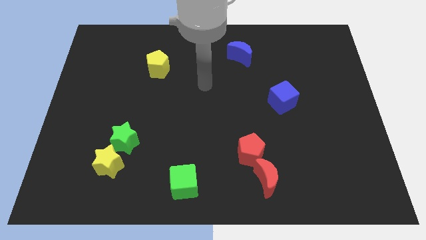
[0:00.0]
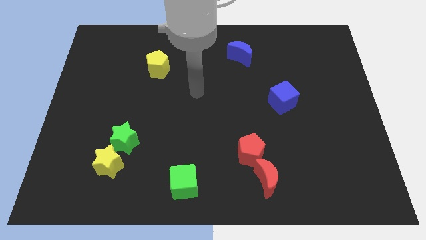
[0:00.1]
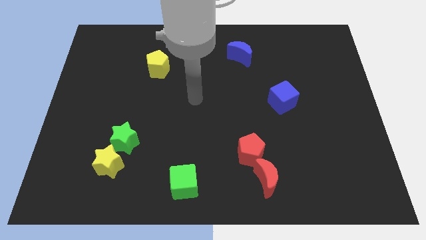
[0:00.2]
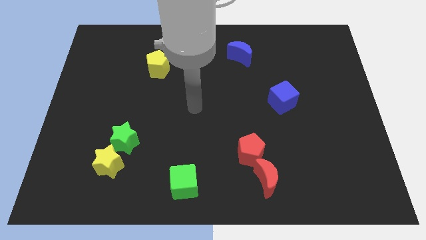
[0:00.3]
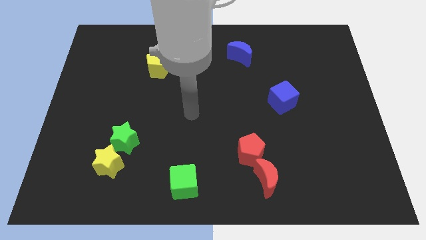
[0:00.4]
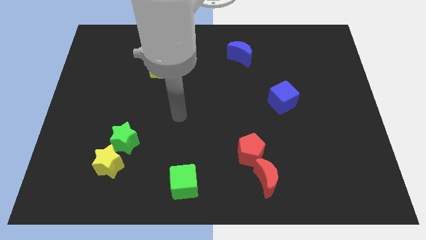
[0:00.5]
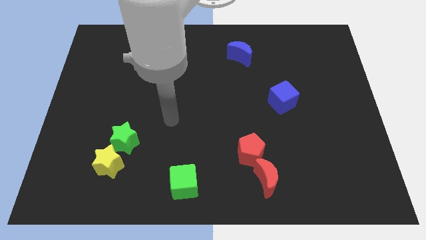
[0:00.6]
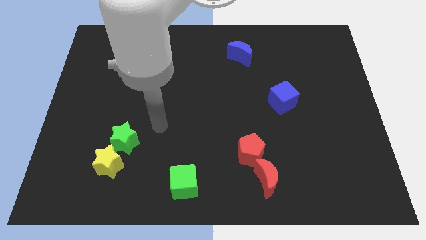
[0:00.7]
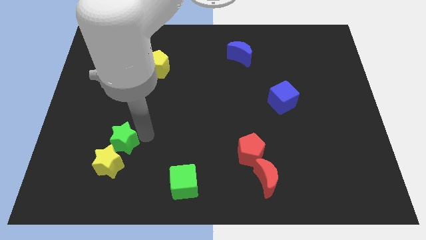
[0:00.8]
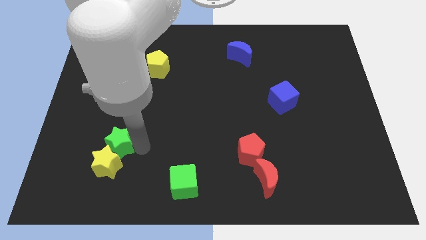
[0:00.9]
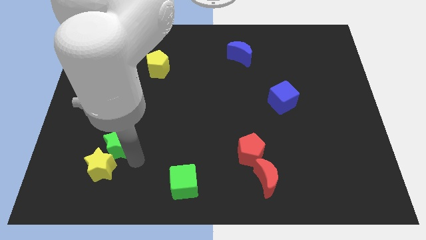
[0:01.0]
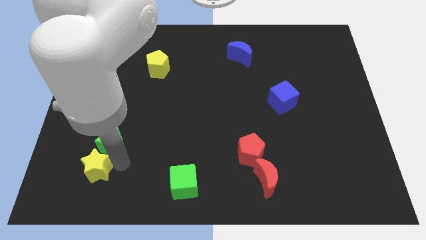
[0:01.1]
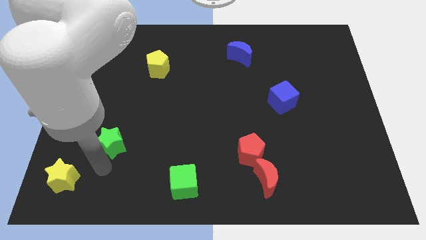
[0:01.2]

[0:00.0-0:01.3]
pull the green star apart from the yellow star

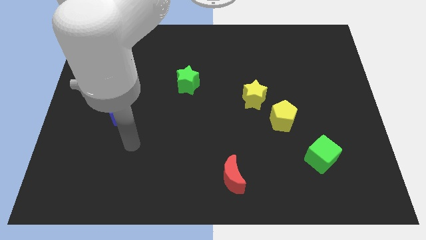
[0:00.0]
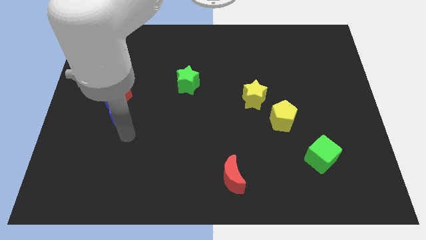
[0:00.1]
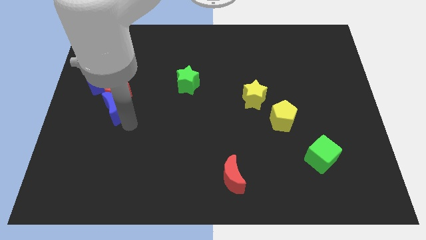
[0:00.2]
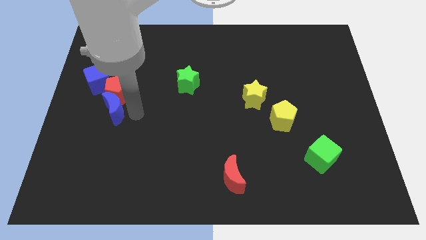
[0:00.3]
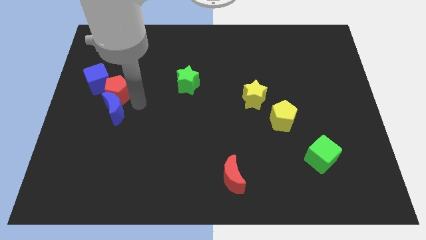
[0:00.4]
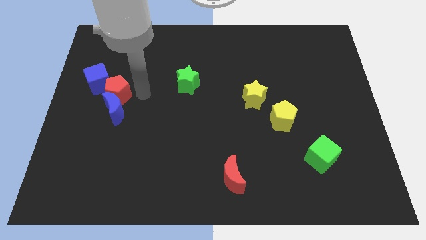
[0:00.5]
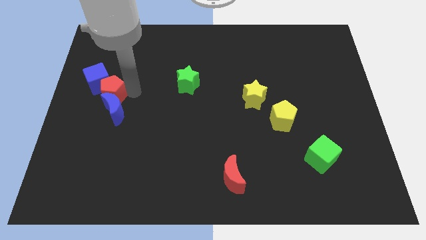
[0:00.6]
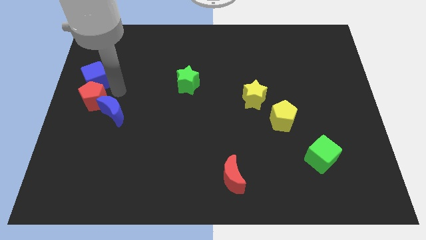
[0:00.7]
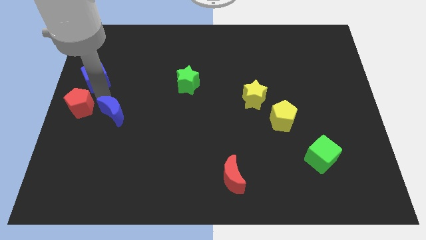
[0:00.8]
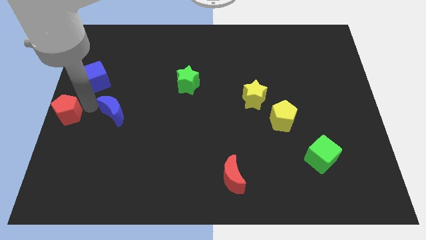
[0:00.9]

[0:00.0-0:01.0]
move the blue moon away from the red pentagon

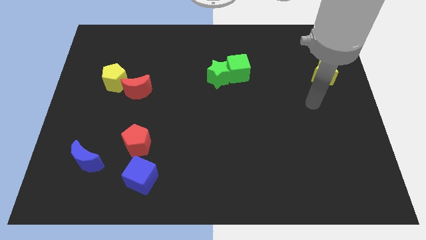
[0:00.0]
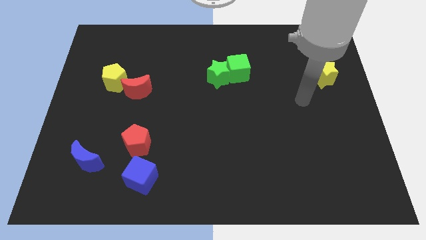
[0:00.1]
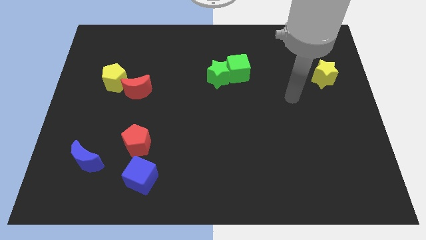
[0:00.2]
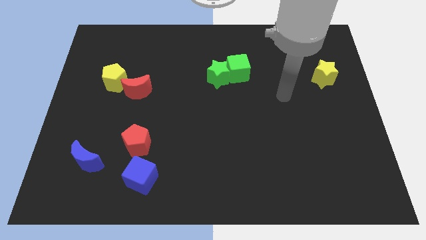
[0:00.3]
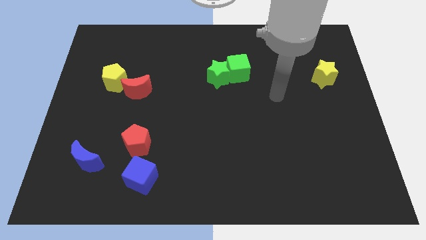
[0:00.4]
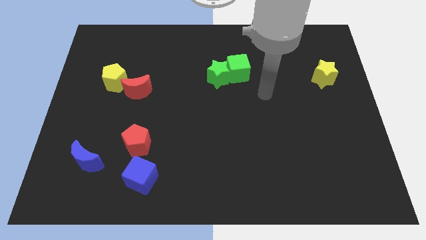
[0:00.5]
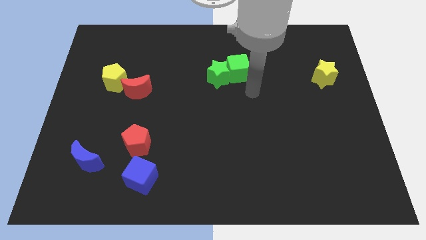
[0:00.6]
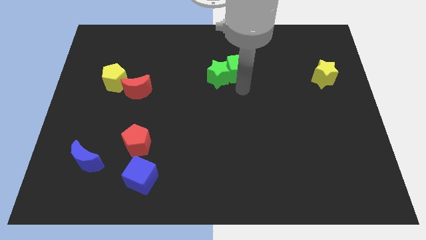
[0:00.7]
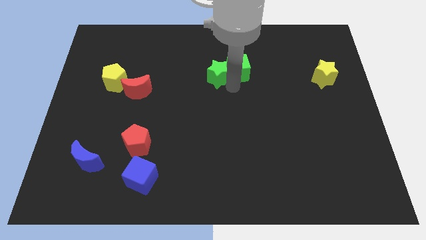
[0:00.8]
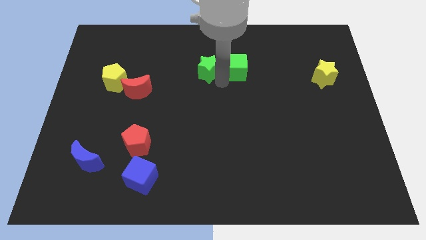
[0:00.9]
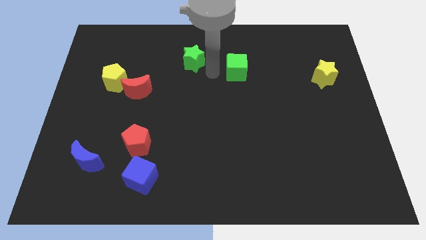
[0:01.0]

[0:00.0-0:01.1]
move the green cube away from the green star

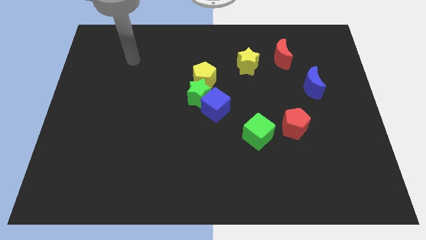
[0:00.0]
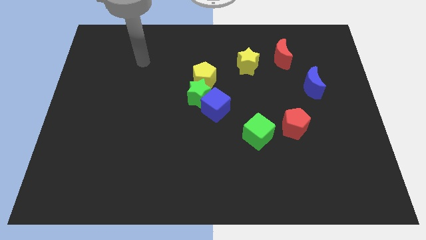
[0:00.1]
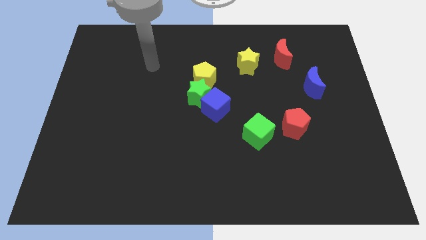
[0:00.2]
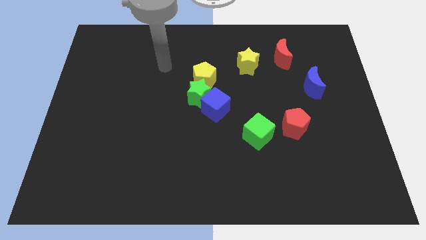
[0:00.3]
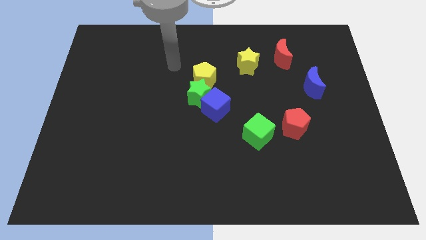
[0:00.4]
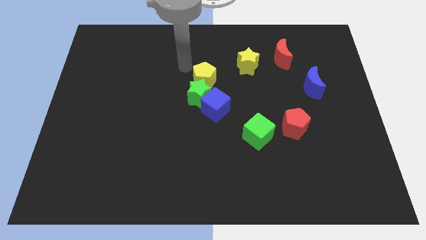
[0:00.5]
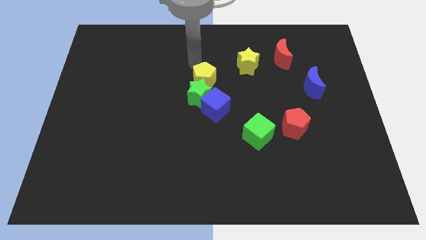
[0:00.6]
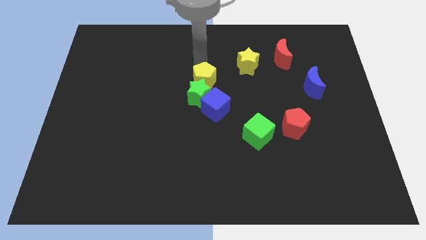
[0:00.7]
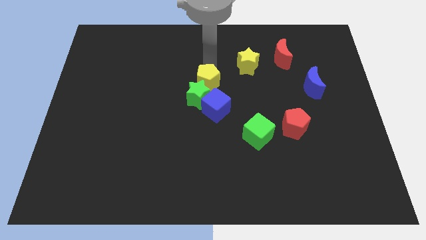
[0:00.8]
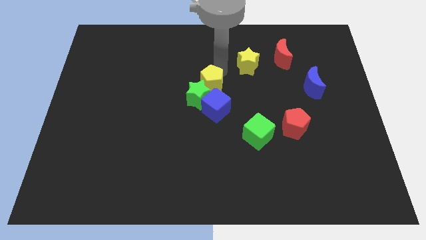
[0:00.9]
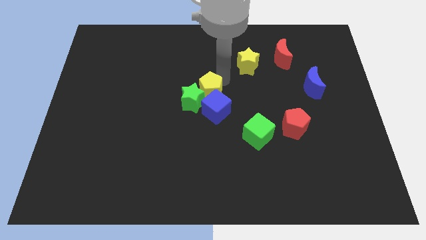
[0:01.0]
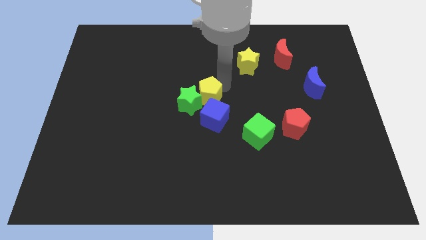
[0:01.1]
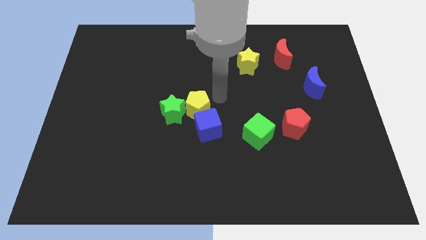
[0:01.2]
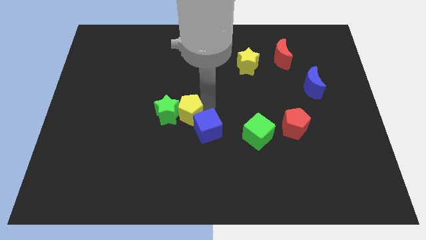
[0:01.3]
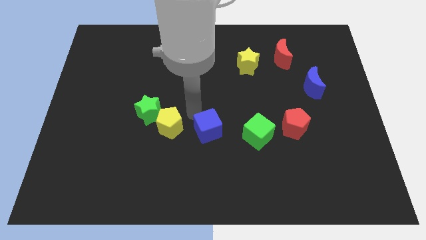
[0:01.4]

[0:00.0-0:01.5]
pull the green star apart from the yellow pentagon and blue cube

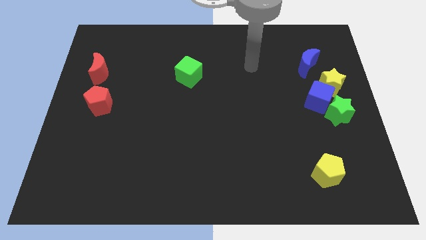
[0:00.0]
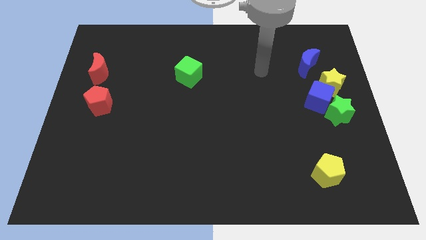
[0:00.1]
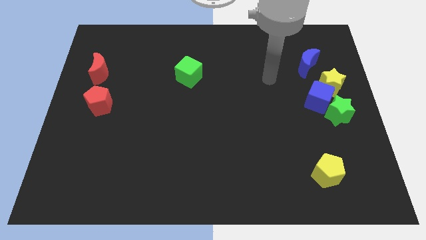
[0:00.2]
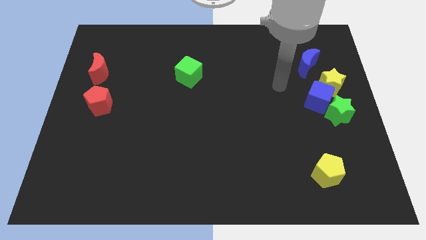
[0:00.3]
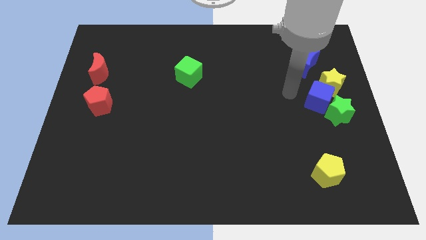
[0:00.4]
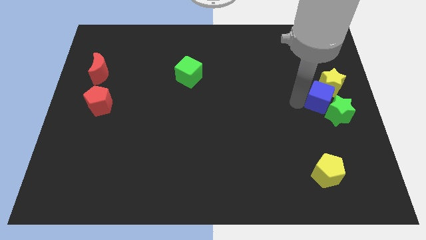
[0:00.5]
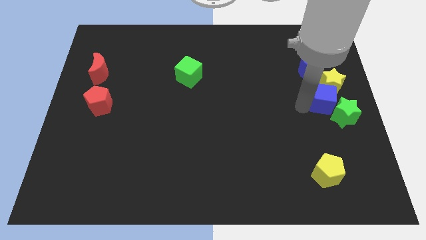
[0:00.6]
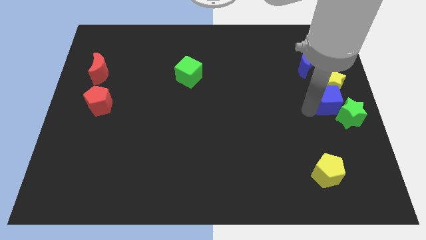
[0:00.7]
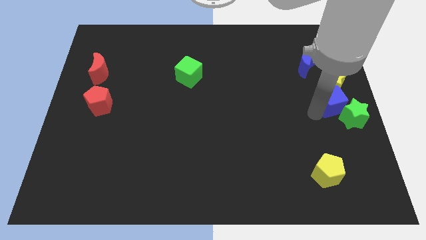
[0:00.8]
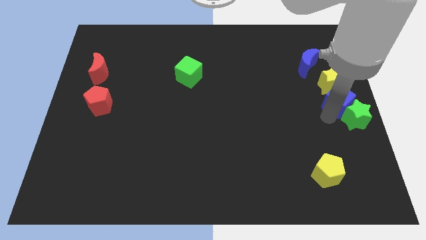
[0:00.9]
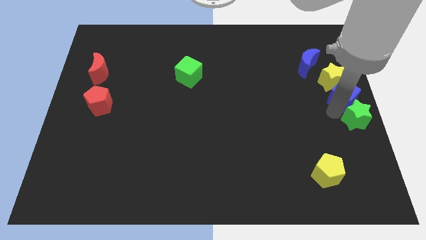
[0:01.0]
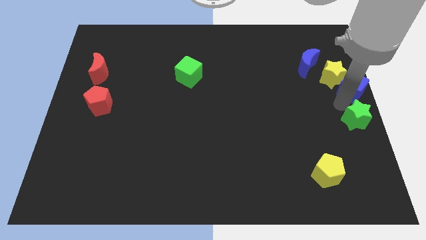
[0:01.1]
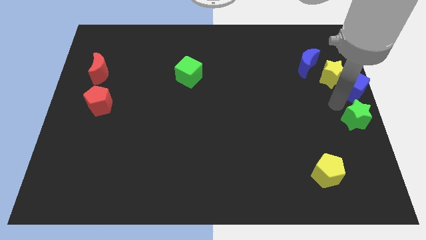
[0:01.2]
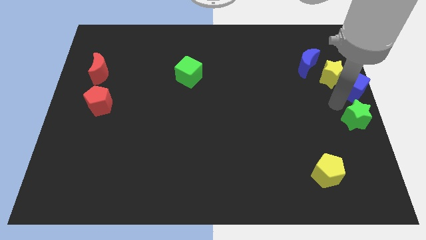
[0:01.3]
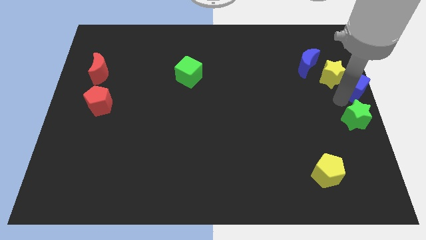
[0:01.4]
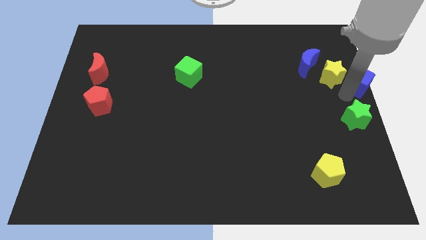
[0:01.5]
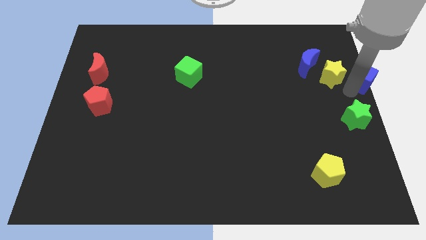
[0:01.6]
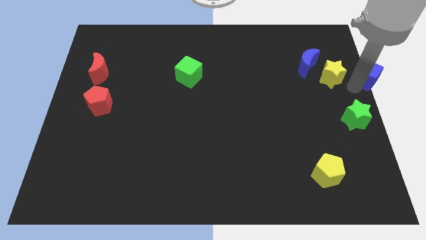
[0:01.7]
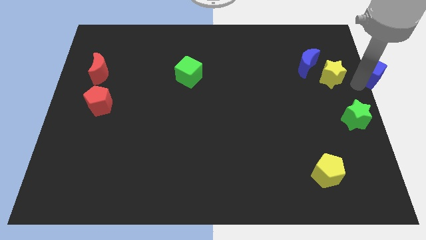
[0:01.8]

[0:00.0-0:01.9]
pull the blue cube apart from the green star and yellow star

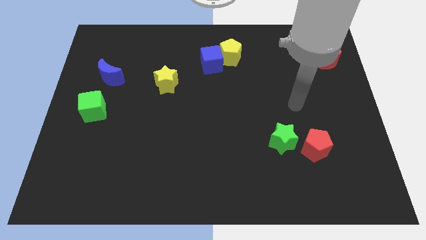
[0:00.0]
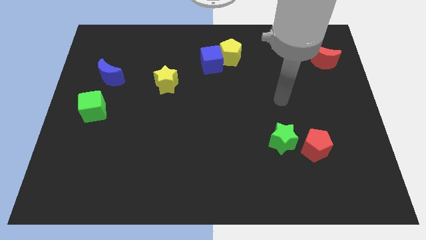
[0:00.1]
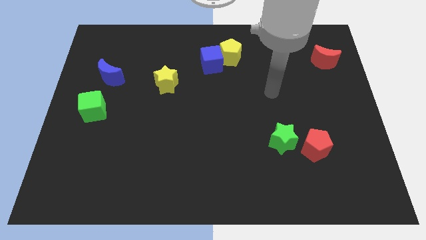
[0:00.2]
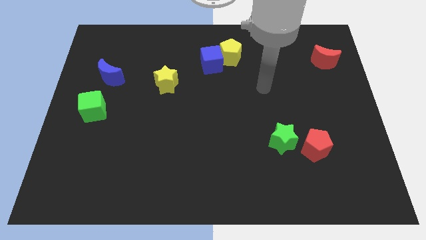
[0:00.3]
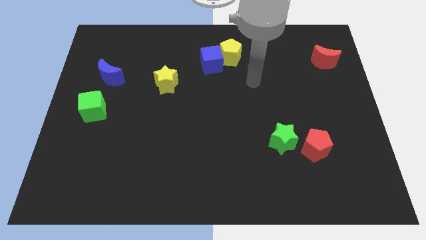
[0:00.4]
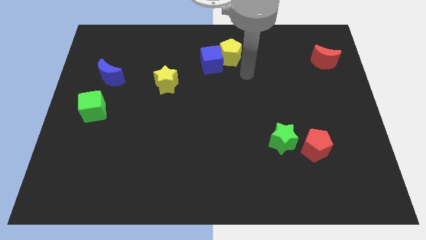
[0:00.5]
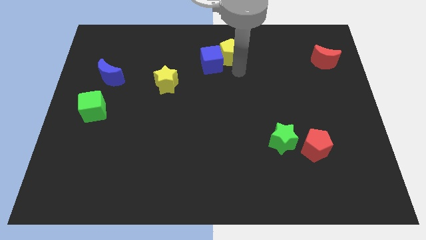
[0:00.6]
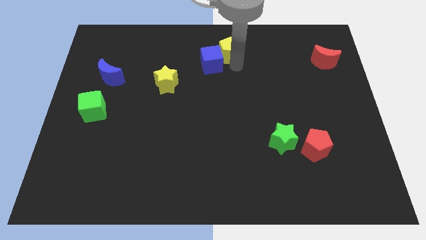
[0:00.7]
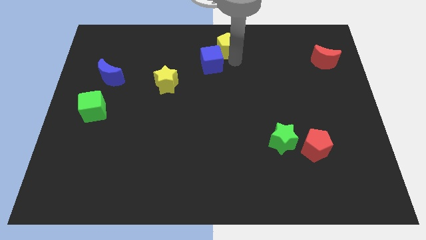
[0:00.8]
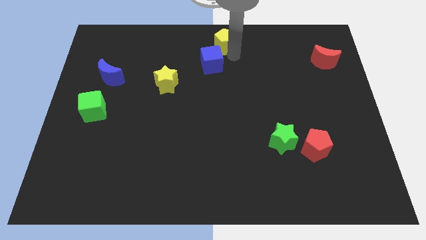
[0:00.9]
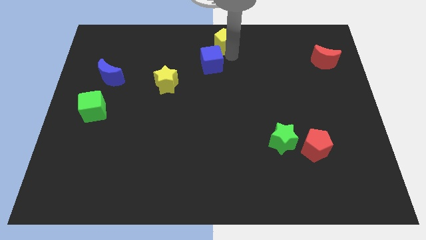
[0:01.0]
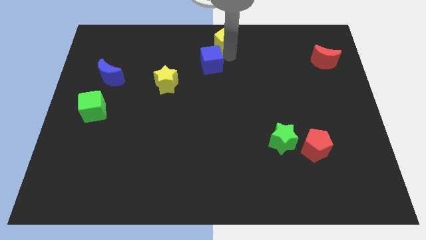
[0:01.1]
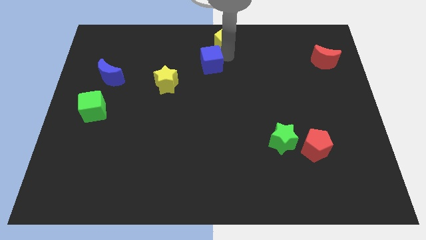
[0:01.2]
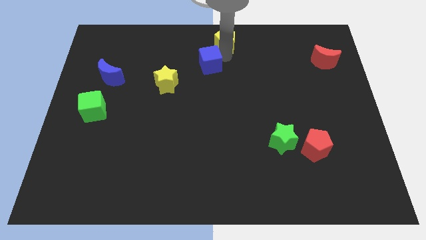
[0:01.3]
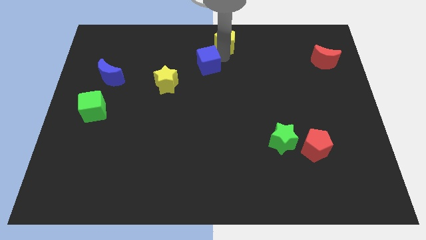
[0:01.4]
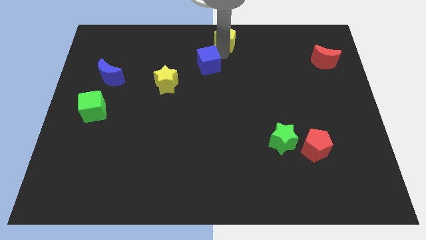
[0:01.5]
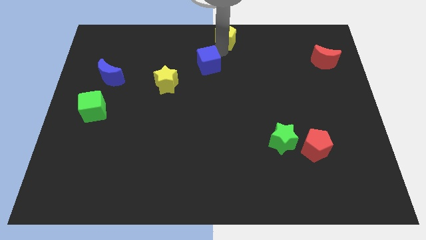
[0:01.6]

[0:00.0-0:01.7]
move the blue cube away from the yellow pentagon

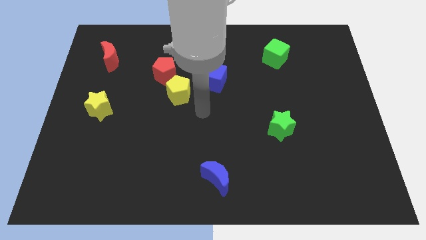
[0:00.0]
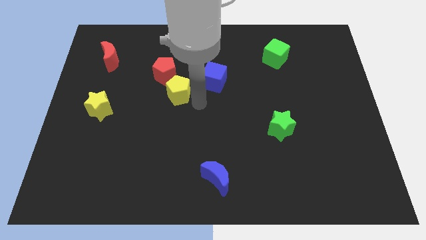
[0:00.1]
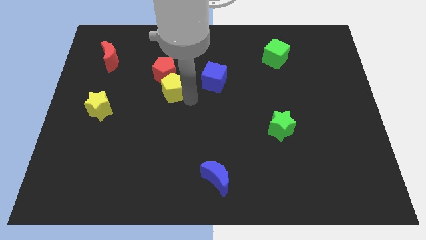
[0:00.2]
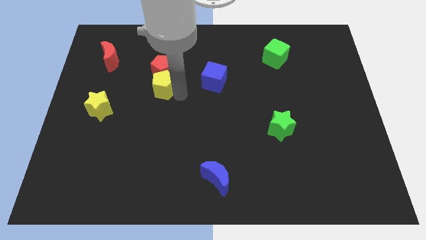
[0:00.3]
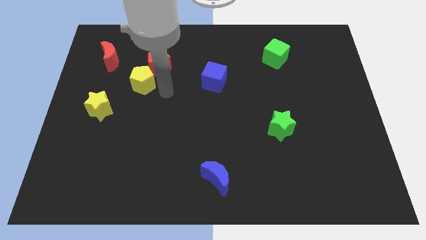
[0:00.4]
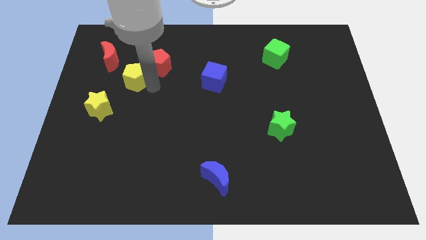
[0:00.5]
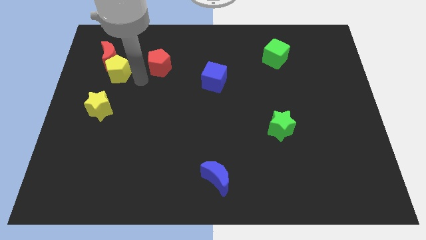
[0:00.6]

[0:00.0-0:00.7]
separate the red pentagon from the yellow pentagon
